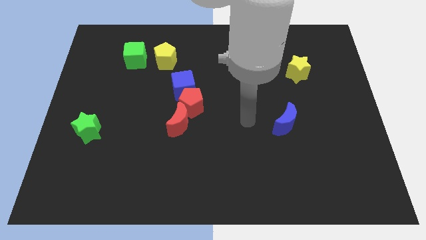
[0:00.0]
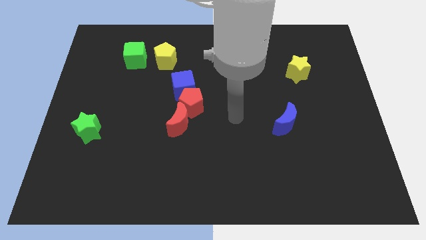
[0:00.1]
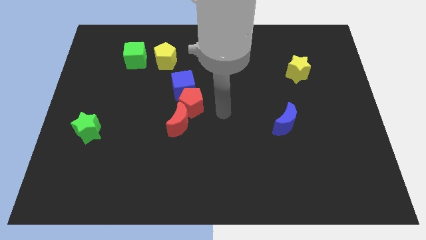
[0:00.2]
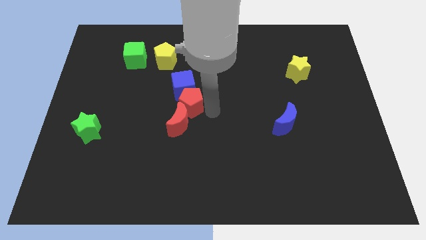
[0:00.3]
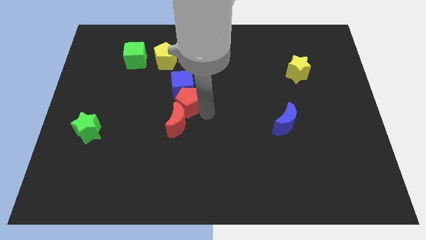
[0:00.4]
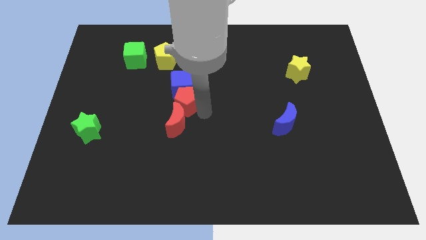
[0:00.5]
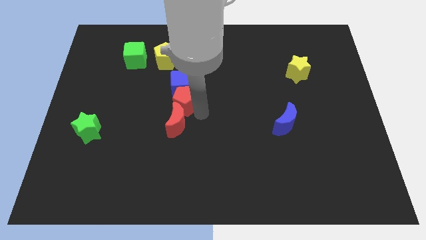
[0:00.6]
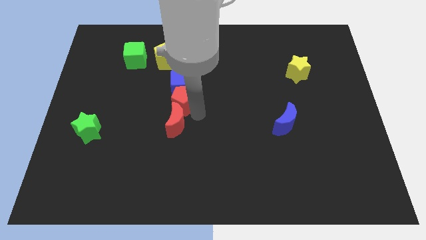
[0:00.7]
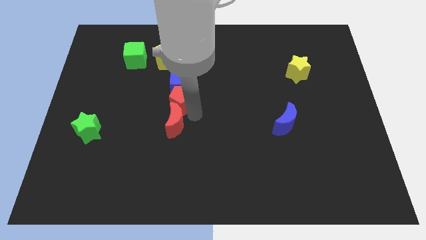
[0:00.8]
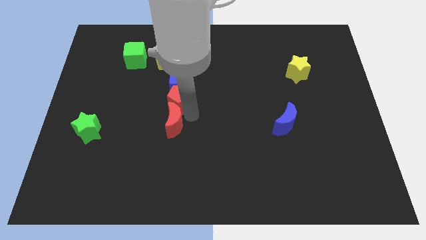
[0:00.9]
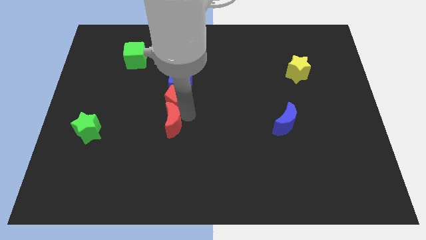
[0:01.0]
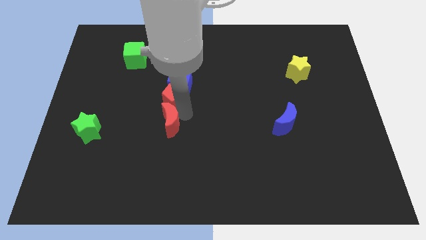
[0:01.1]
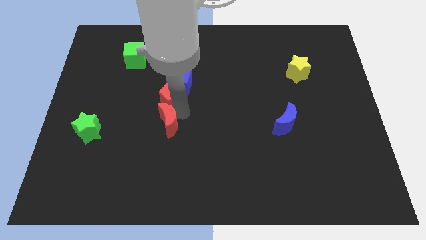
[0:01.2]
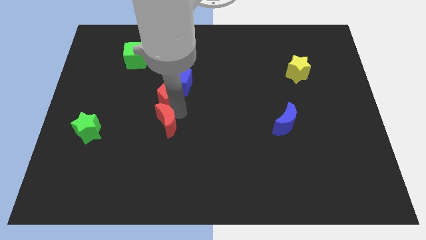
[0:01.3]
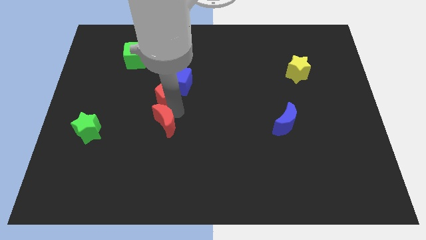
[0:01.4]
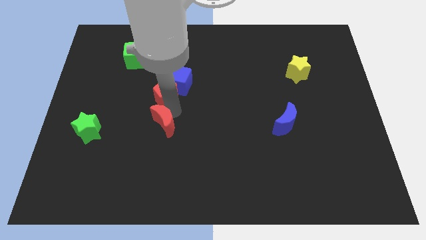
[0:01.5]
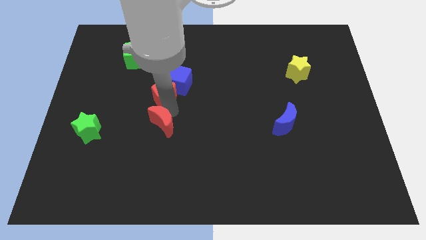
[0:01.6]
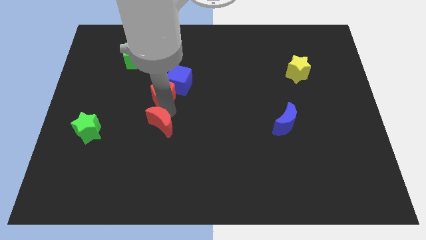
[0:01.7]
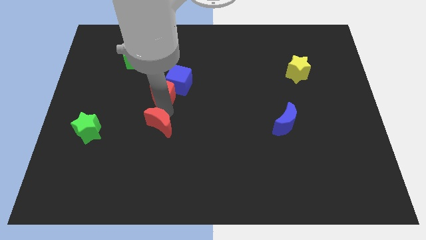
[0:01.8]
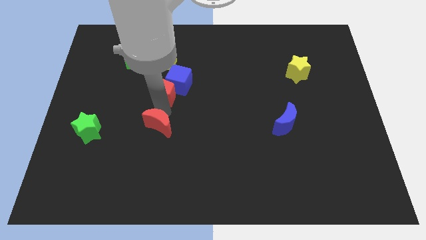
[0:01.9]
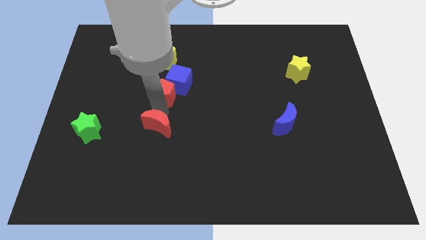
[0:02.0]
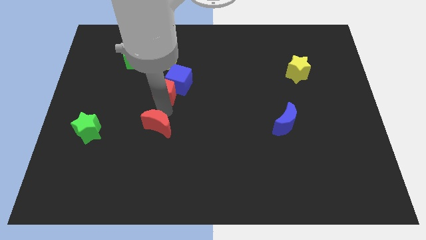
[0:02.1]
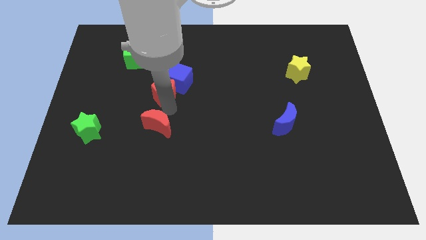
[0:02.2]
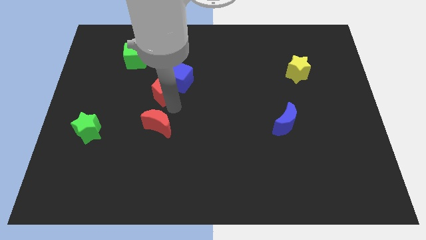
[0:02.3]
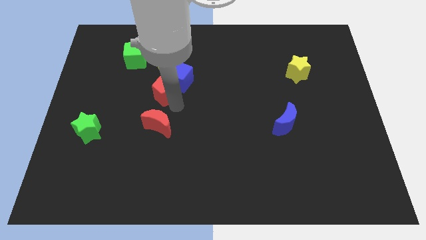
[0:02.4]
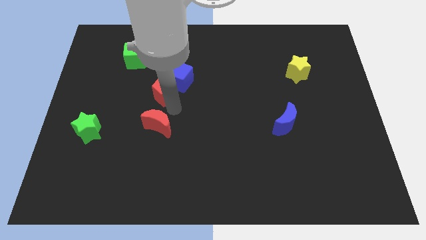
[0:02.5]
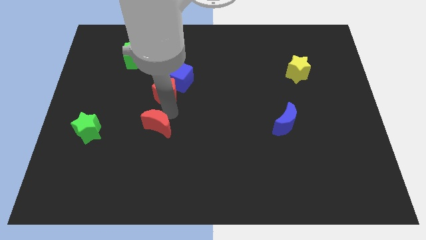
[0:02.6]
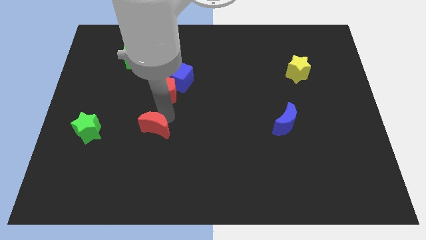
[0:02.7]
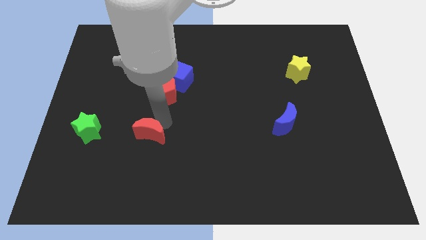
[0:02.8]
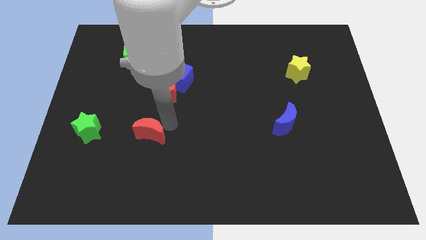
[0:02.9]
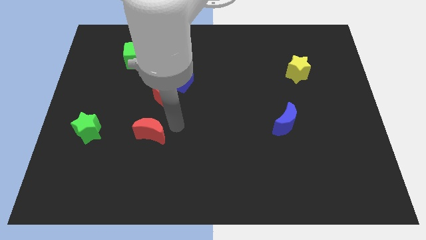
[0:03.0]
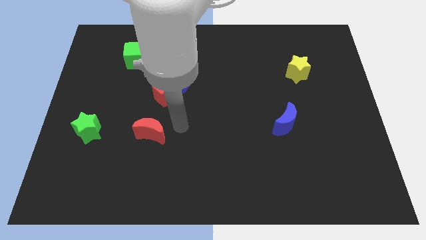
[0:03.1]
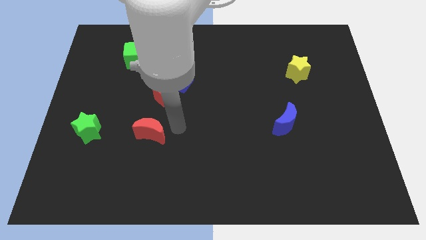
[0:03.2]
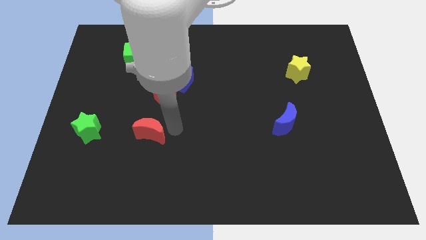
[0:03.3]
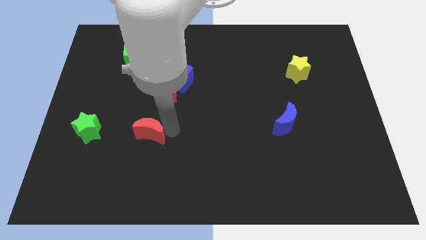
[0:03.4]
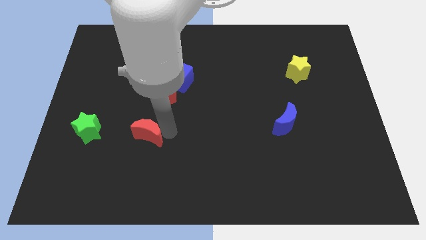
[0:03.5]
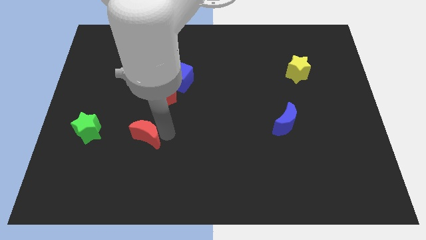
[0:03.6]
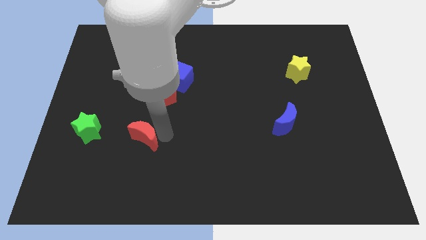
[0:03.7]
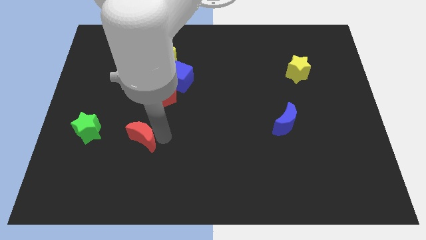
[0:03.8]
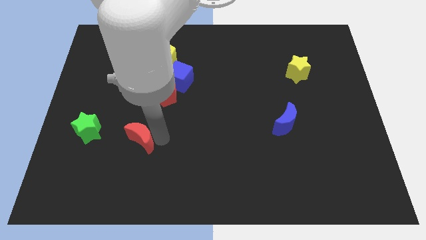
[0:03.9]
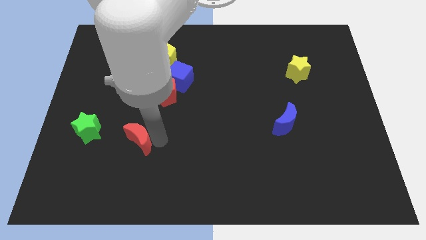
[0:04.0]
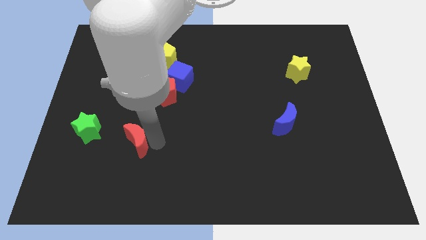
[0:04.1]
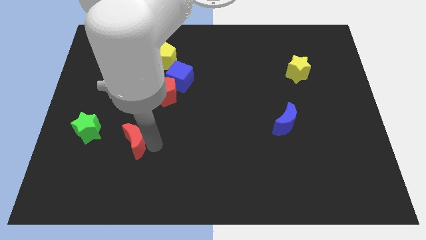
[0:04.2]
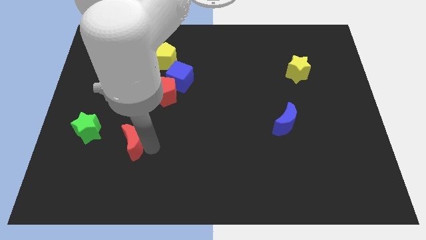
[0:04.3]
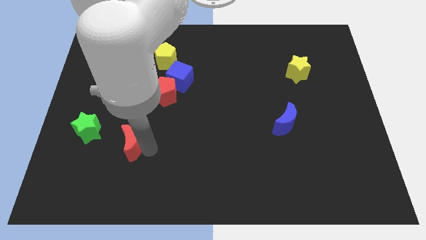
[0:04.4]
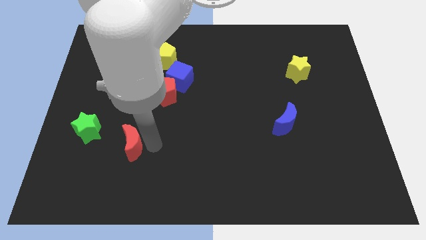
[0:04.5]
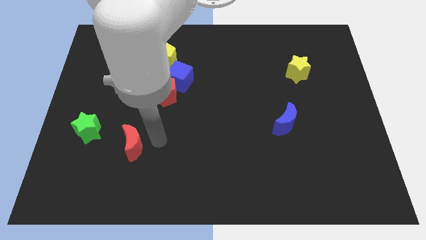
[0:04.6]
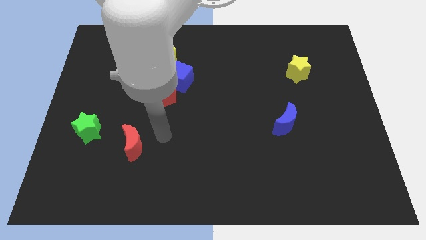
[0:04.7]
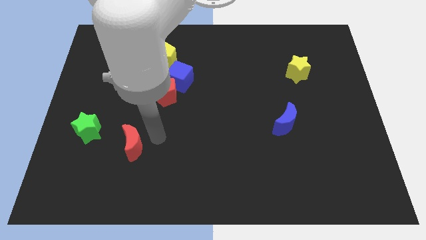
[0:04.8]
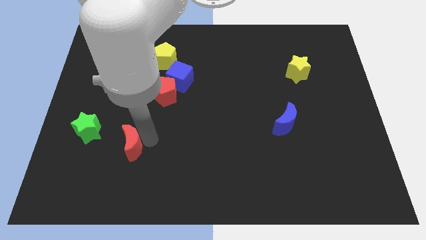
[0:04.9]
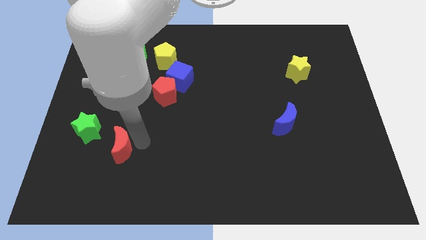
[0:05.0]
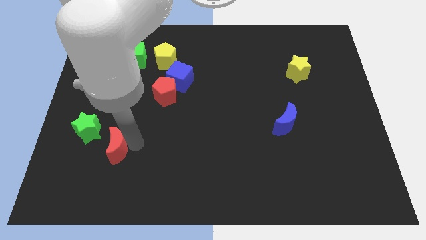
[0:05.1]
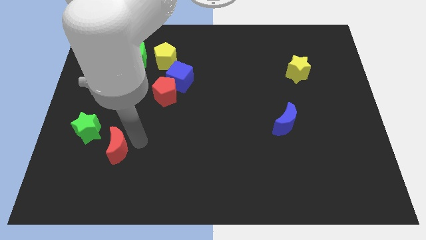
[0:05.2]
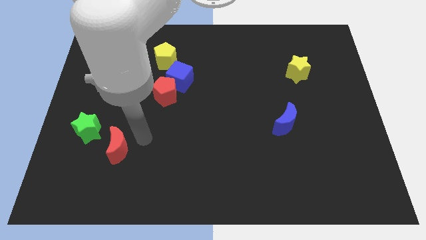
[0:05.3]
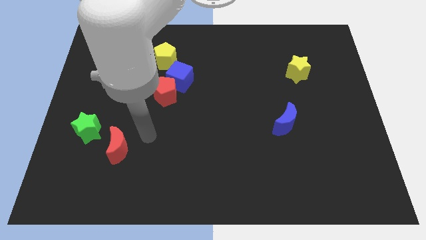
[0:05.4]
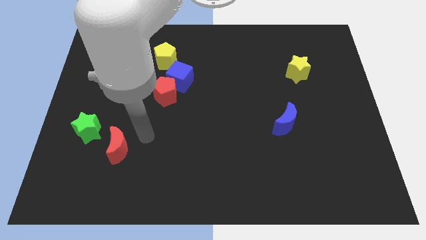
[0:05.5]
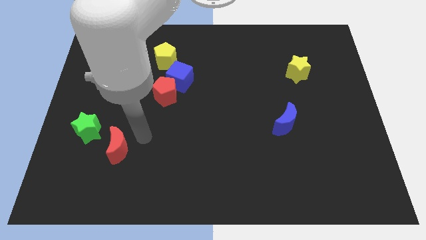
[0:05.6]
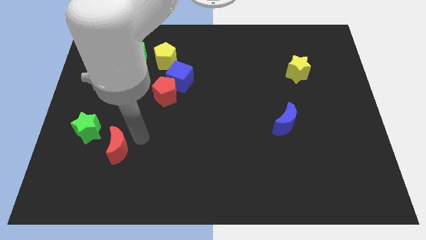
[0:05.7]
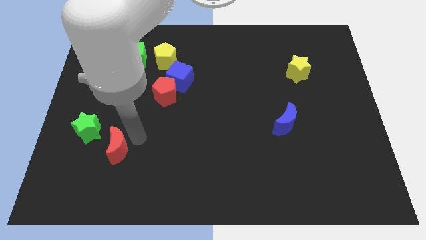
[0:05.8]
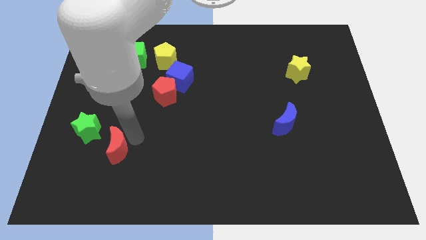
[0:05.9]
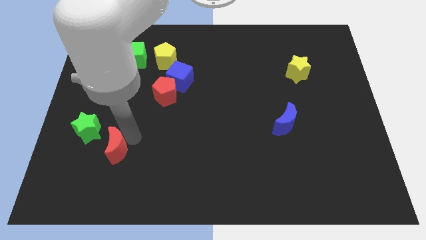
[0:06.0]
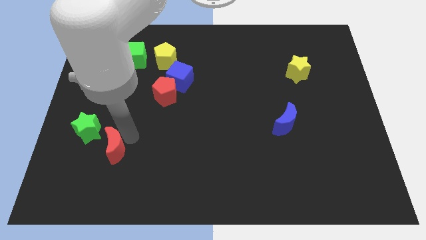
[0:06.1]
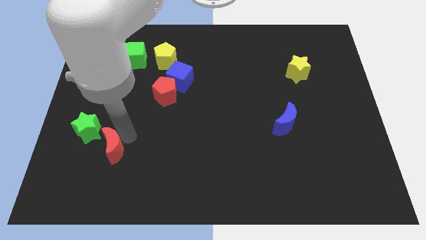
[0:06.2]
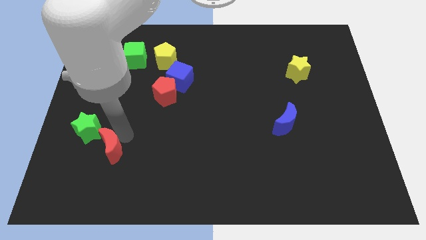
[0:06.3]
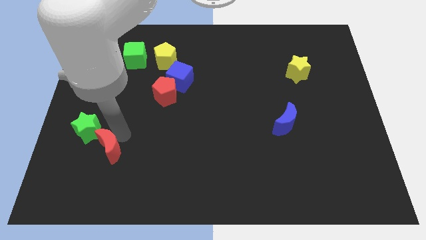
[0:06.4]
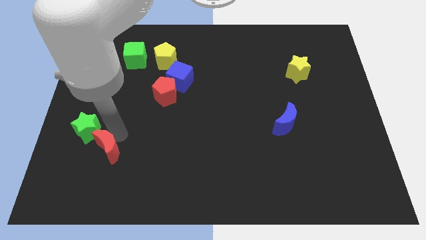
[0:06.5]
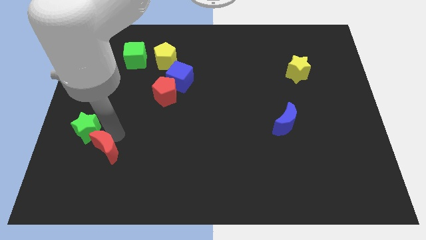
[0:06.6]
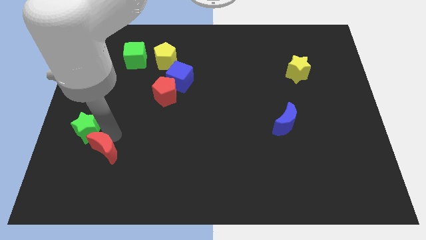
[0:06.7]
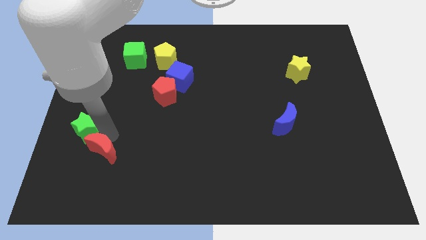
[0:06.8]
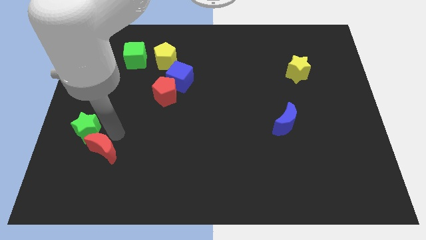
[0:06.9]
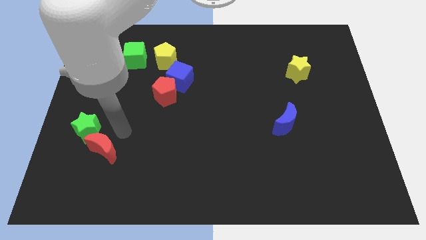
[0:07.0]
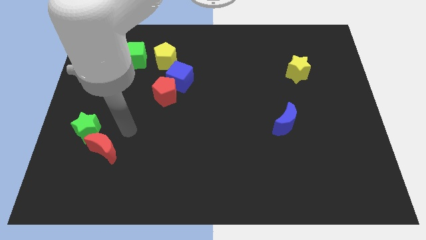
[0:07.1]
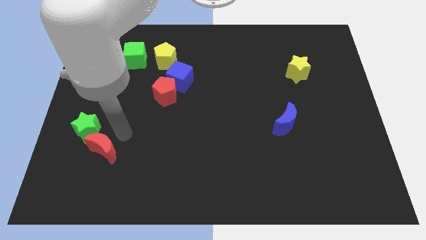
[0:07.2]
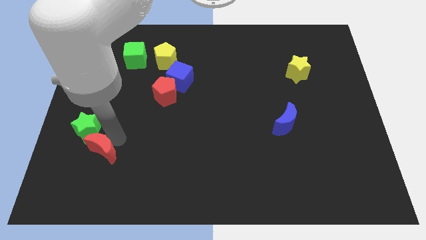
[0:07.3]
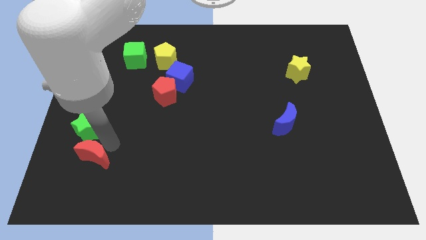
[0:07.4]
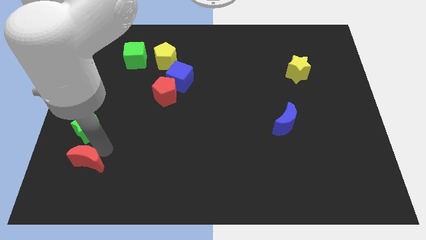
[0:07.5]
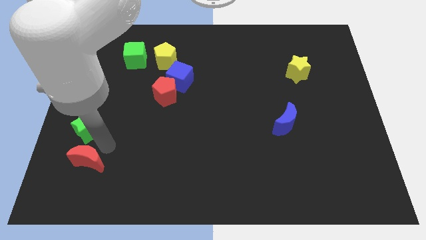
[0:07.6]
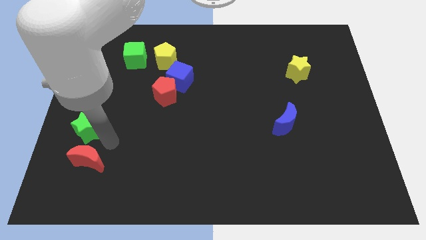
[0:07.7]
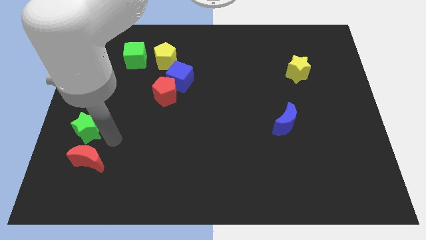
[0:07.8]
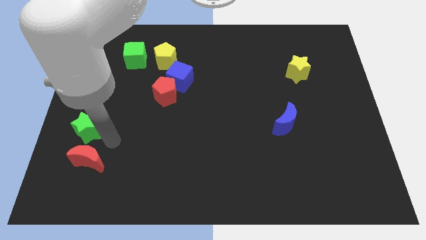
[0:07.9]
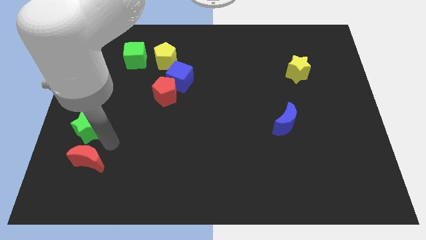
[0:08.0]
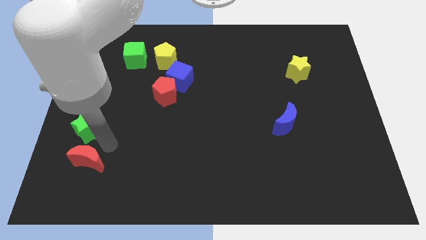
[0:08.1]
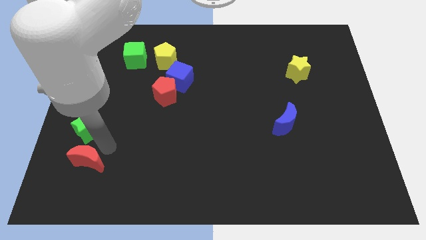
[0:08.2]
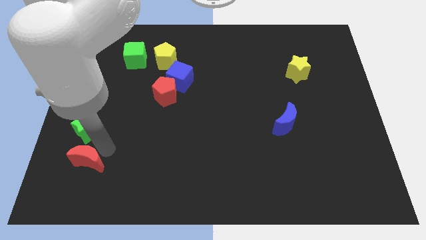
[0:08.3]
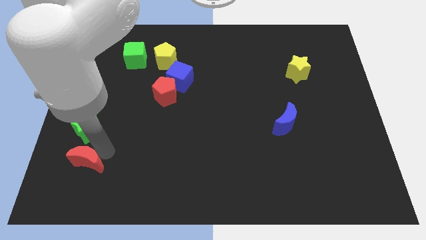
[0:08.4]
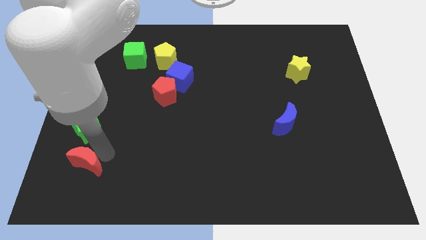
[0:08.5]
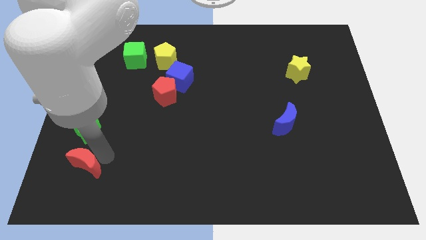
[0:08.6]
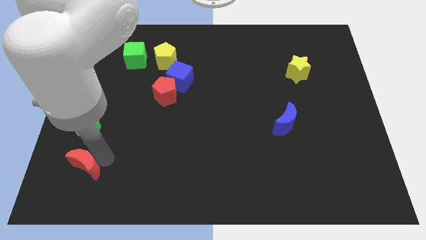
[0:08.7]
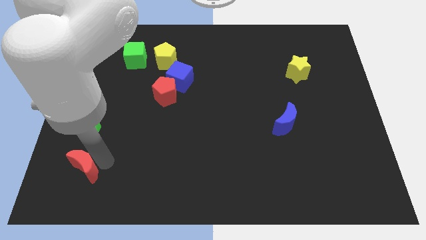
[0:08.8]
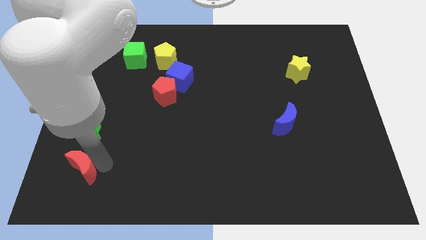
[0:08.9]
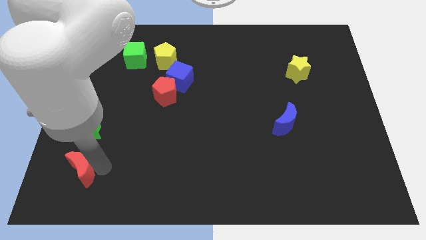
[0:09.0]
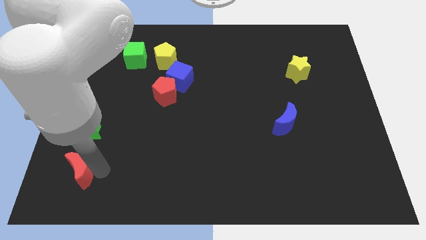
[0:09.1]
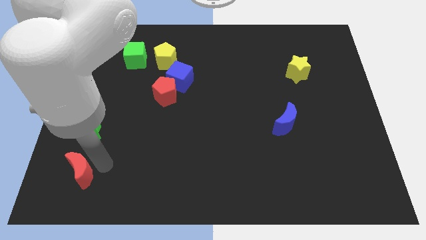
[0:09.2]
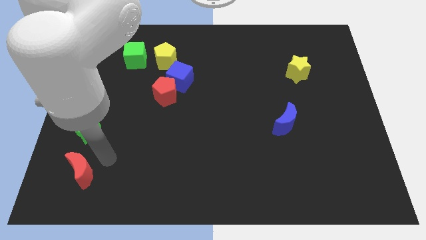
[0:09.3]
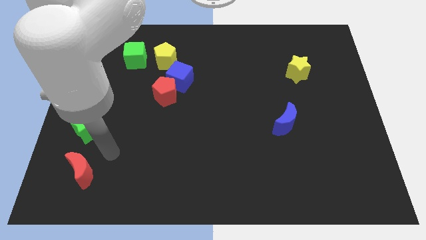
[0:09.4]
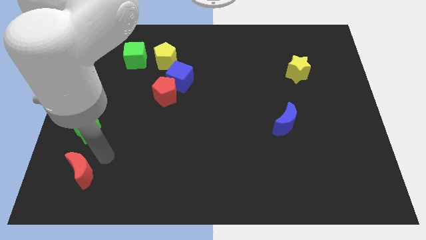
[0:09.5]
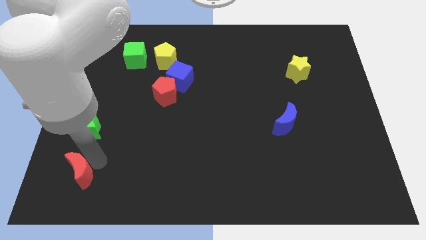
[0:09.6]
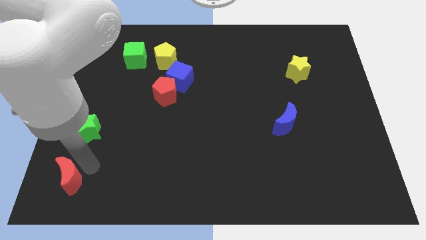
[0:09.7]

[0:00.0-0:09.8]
move the red moon to the bottom left corner
